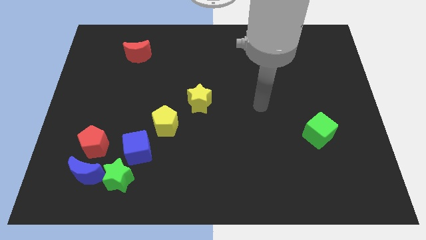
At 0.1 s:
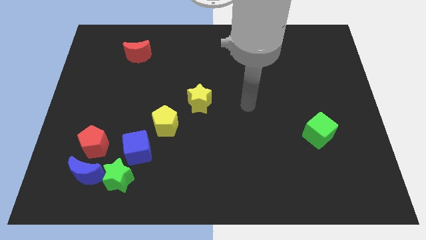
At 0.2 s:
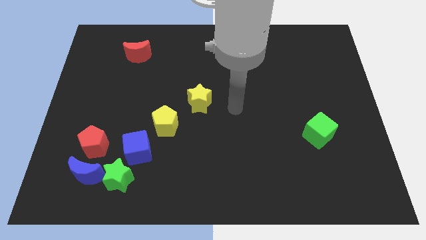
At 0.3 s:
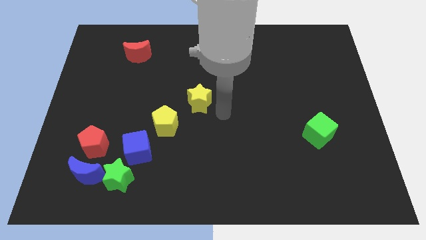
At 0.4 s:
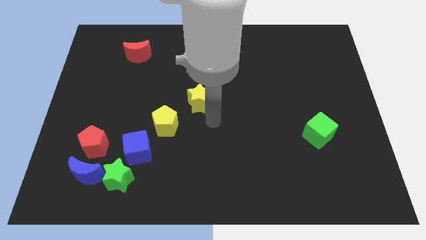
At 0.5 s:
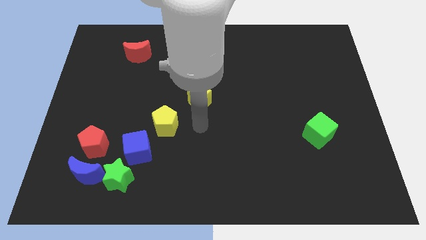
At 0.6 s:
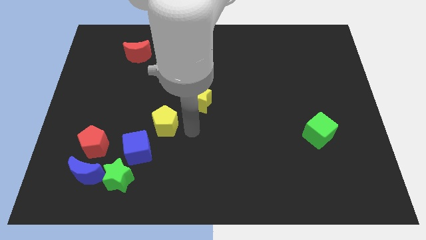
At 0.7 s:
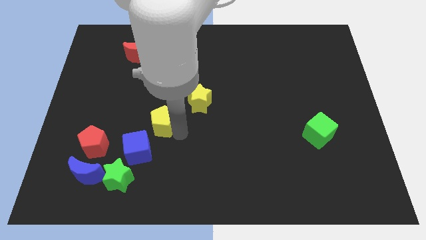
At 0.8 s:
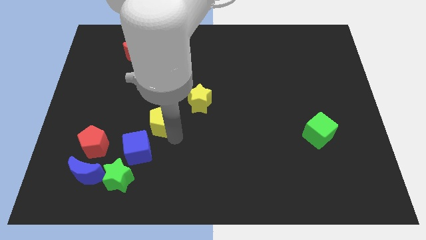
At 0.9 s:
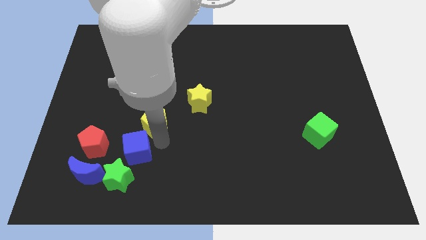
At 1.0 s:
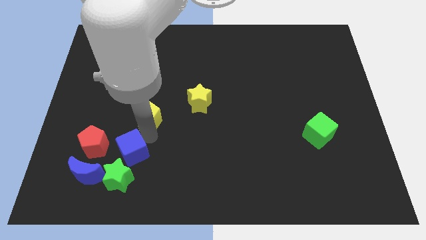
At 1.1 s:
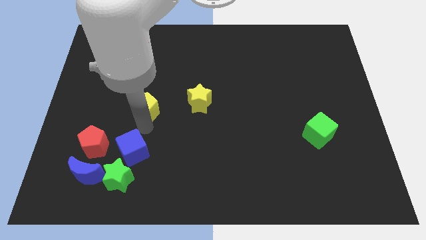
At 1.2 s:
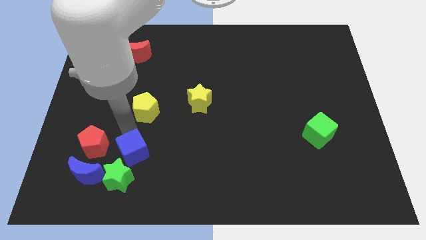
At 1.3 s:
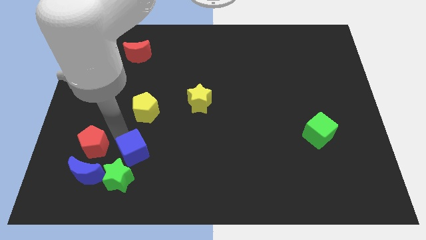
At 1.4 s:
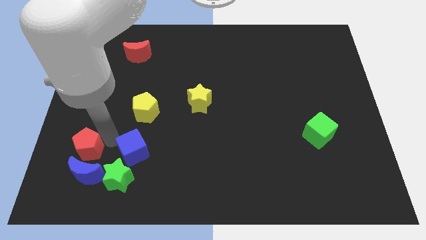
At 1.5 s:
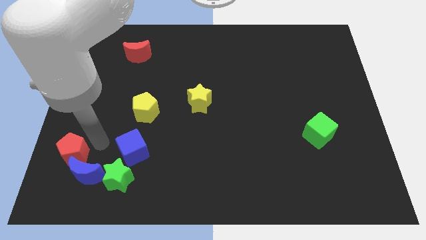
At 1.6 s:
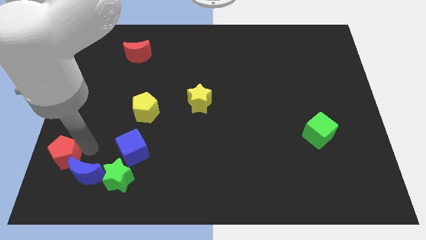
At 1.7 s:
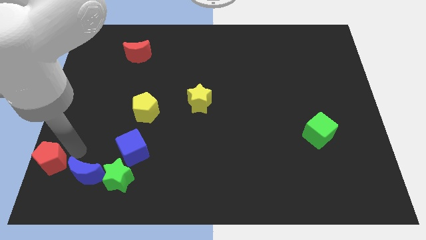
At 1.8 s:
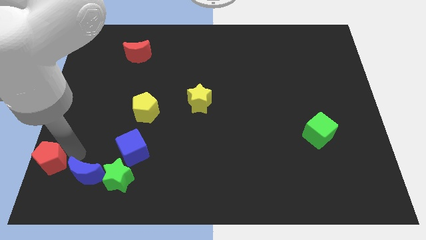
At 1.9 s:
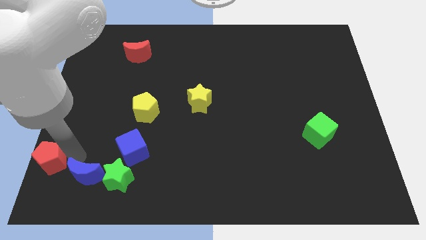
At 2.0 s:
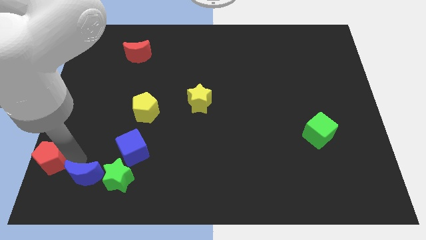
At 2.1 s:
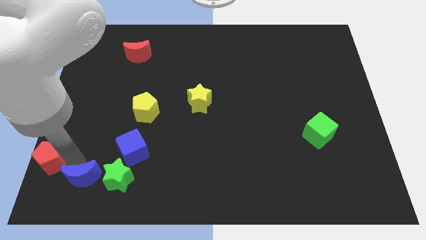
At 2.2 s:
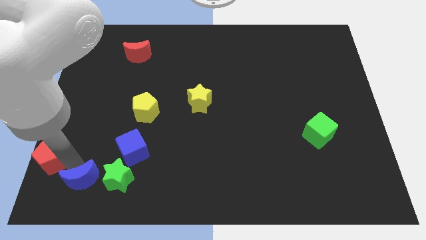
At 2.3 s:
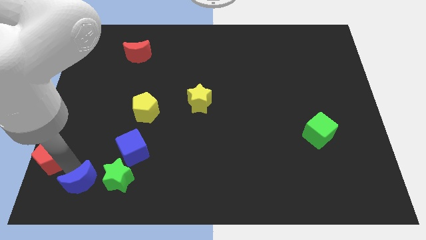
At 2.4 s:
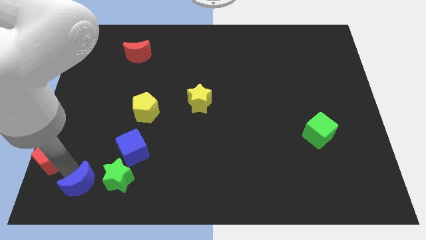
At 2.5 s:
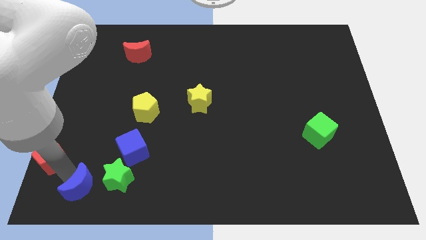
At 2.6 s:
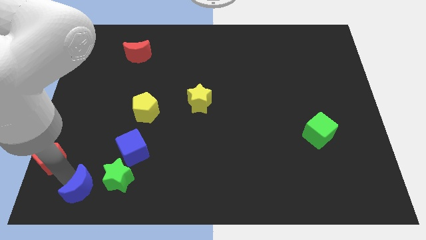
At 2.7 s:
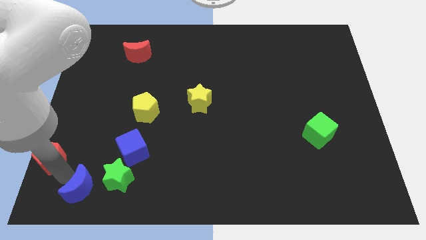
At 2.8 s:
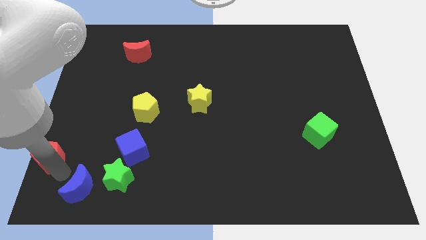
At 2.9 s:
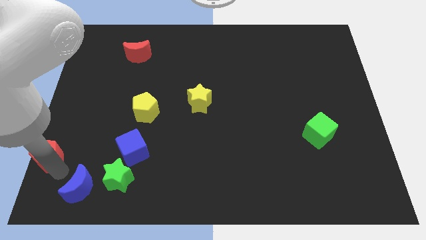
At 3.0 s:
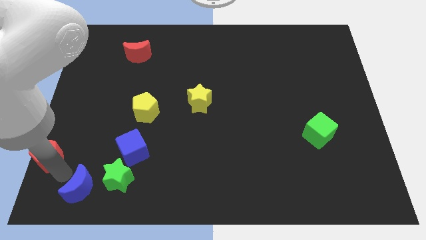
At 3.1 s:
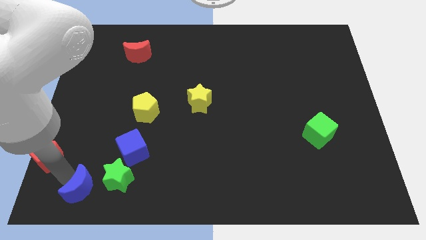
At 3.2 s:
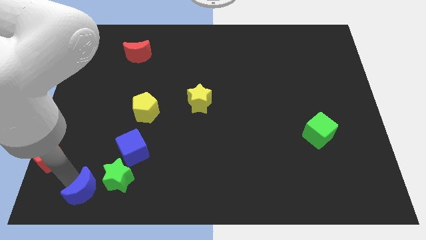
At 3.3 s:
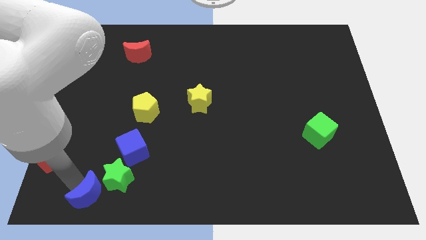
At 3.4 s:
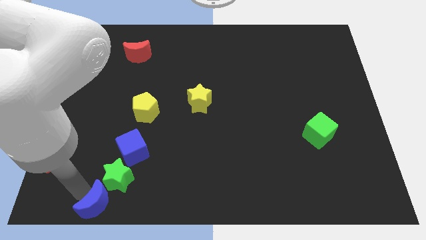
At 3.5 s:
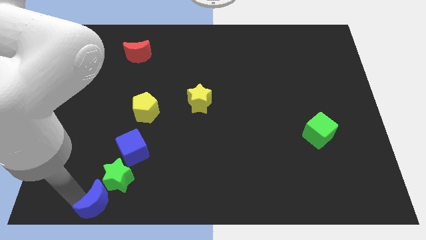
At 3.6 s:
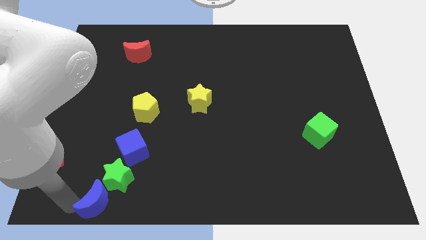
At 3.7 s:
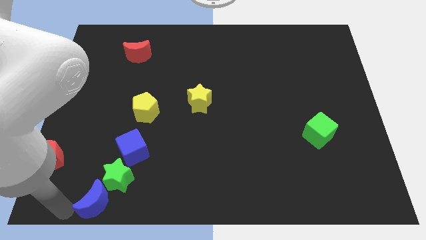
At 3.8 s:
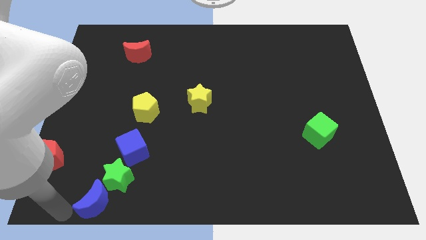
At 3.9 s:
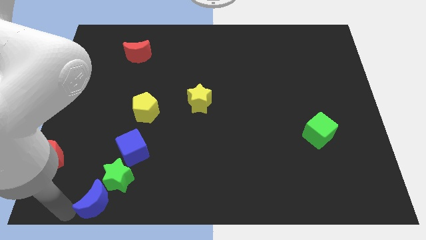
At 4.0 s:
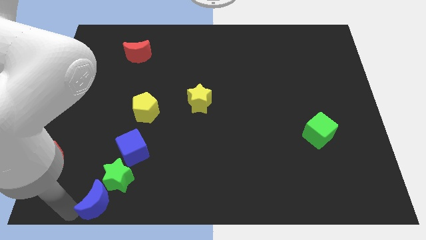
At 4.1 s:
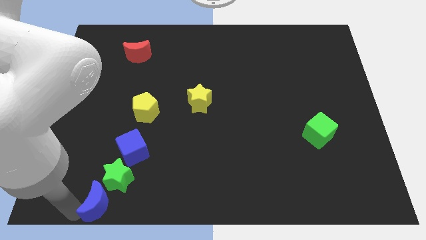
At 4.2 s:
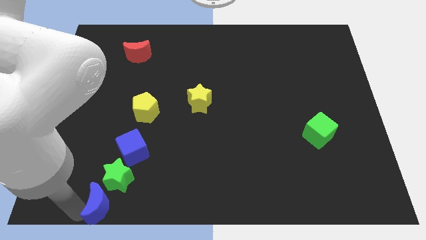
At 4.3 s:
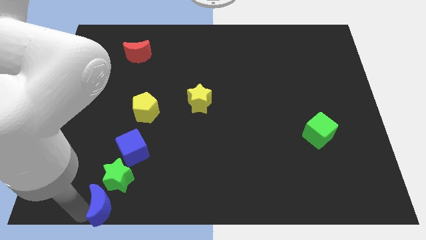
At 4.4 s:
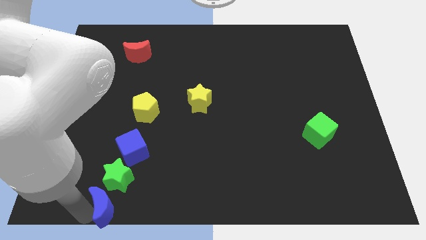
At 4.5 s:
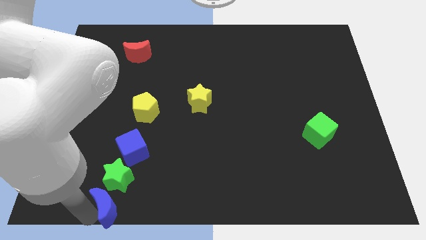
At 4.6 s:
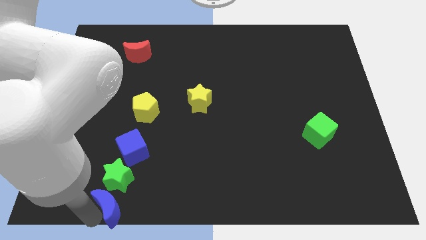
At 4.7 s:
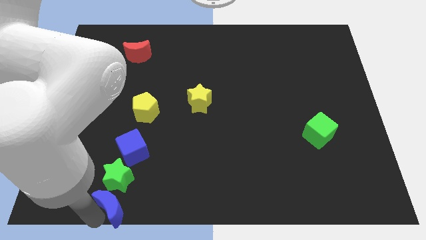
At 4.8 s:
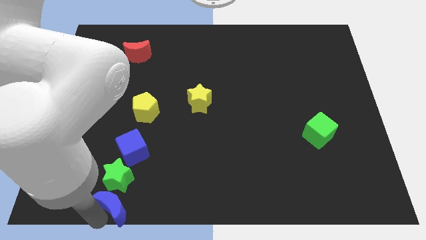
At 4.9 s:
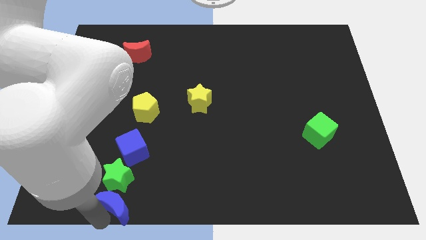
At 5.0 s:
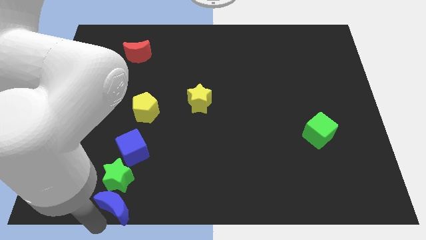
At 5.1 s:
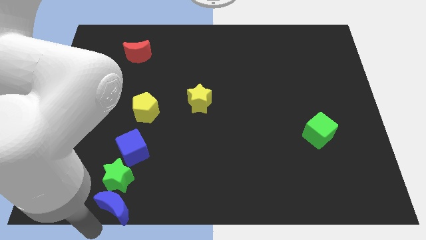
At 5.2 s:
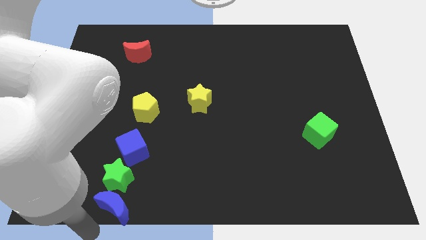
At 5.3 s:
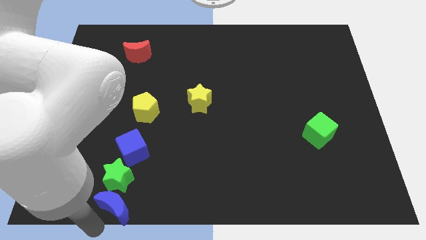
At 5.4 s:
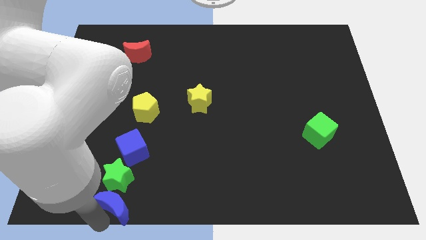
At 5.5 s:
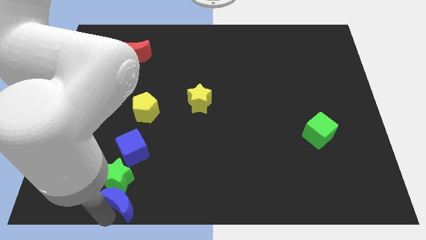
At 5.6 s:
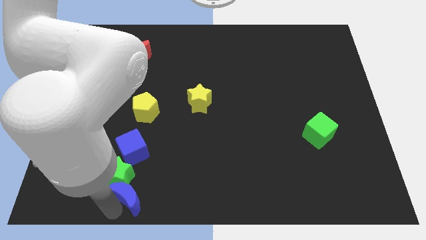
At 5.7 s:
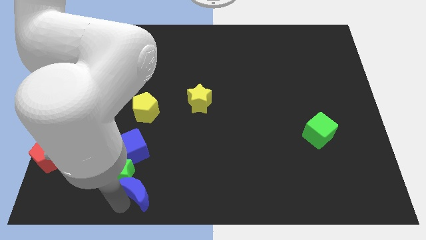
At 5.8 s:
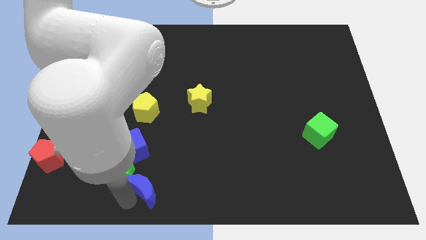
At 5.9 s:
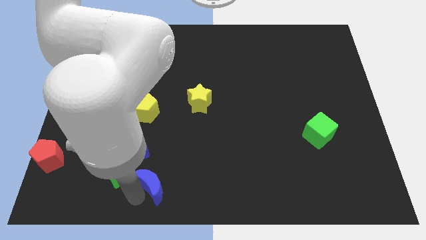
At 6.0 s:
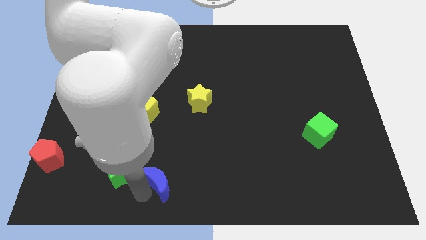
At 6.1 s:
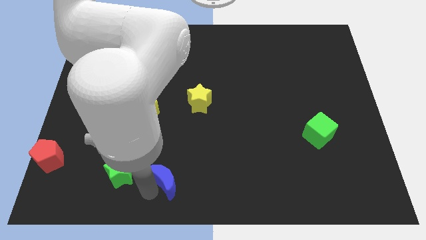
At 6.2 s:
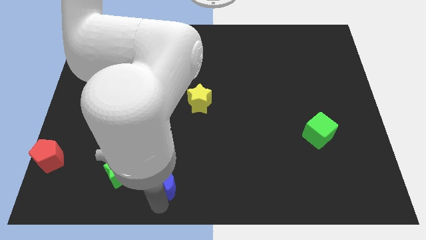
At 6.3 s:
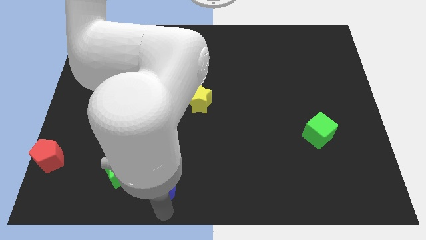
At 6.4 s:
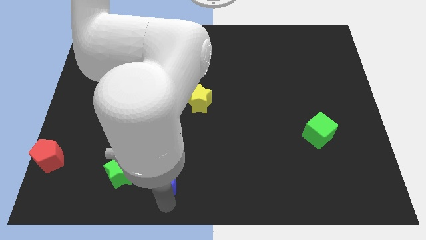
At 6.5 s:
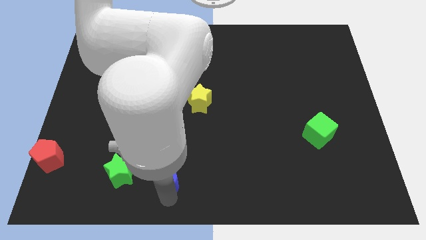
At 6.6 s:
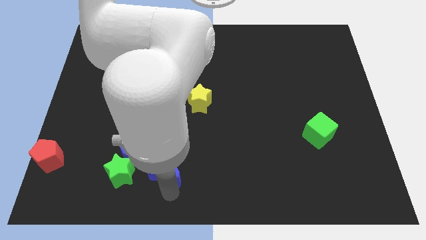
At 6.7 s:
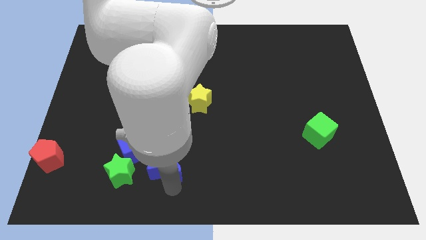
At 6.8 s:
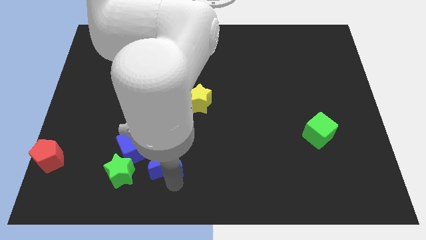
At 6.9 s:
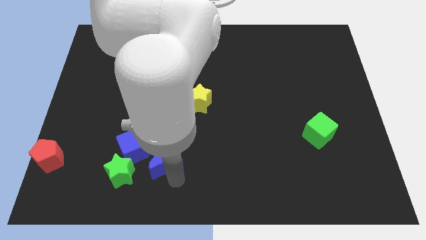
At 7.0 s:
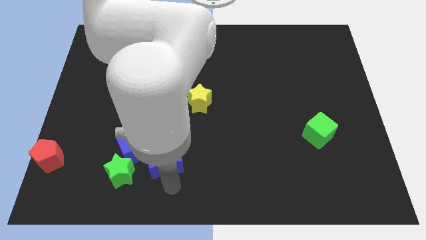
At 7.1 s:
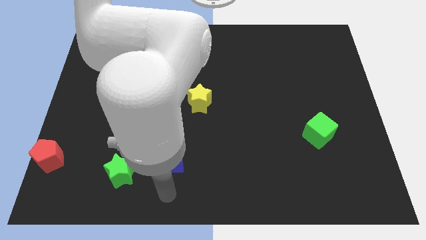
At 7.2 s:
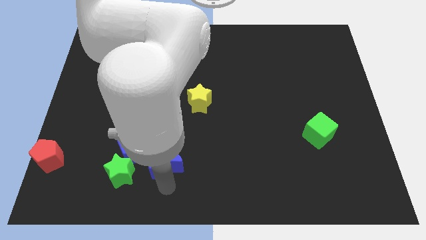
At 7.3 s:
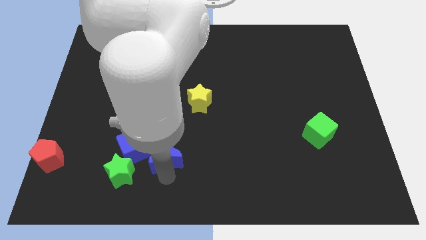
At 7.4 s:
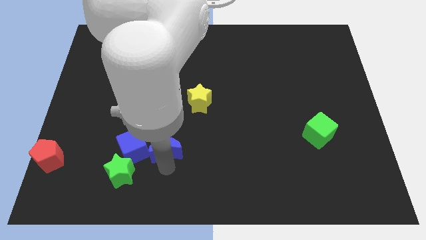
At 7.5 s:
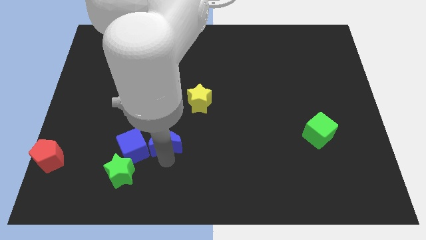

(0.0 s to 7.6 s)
push the blue moon to the bottom right of the yellow pentagon

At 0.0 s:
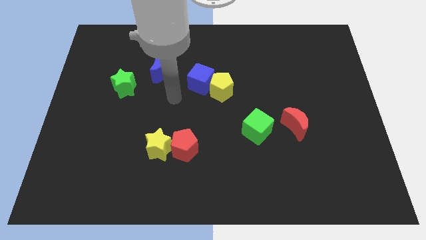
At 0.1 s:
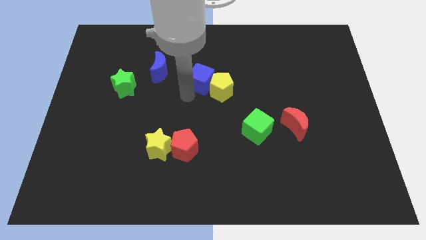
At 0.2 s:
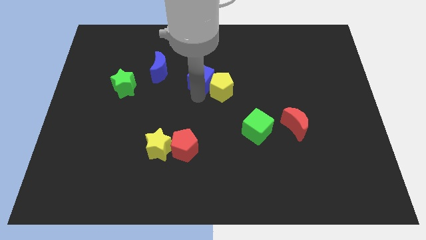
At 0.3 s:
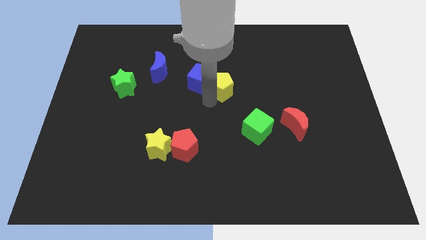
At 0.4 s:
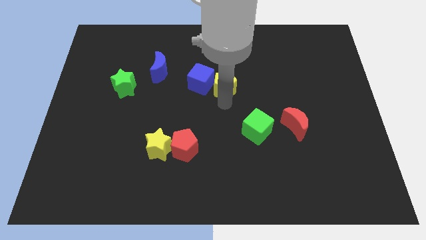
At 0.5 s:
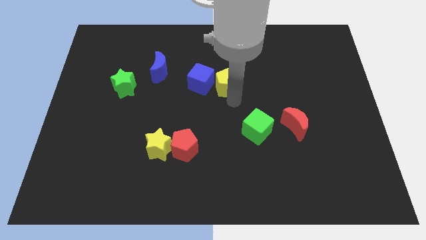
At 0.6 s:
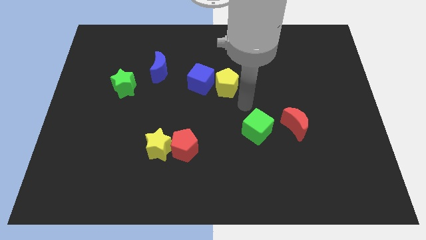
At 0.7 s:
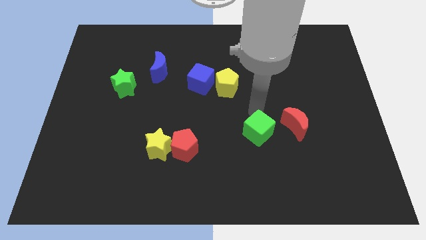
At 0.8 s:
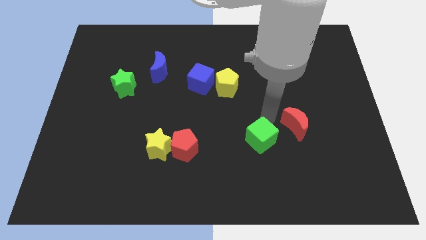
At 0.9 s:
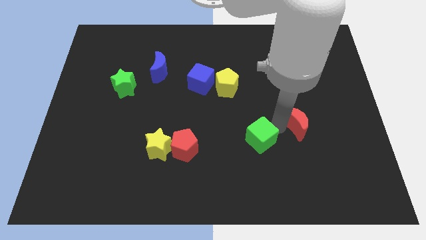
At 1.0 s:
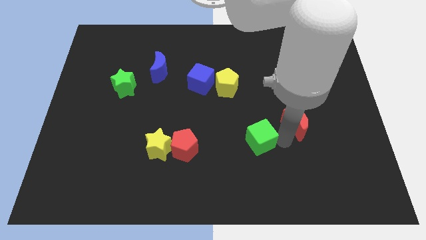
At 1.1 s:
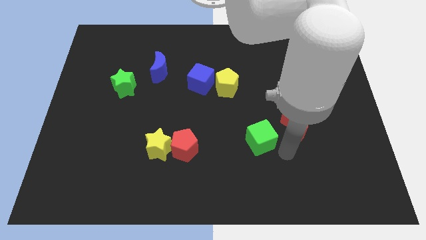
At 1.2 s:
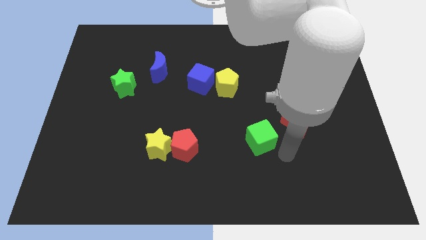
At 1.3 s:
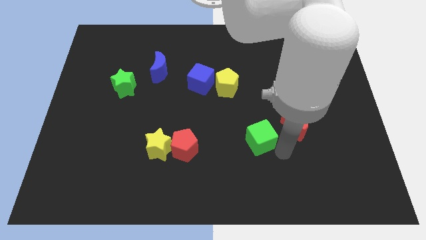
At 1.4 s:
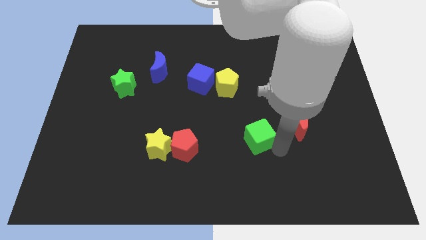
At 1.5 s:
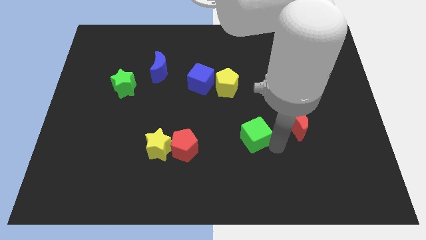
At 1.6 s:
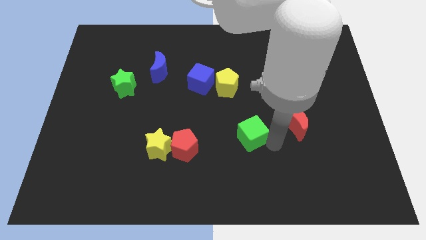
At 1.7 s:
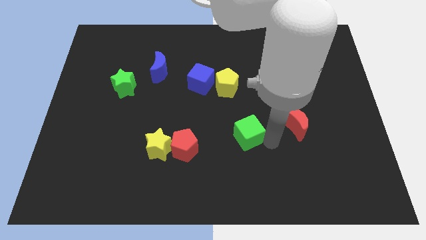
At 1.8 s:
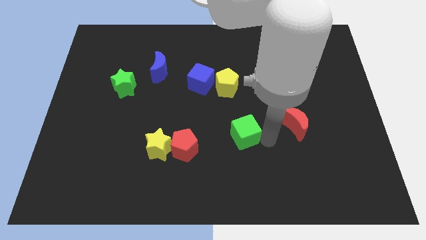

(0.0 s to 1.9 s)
move the green cube to the bottom of the yellow pentagon
